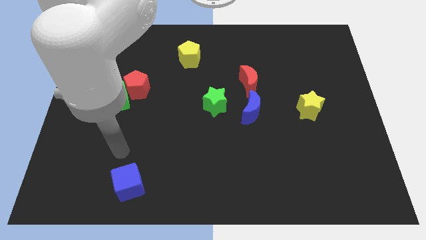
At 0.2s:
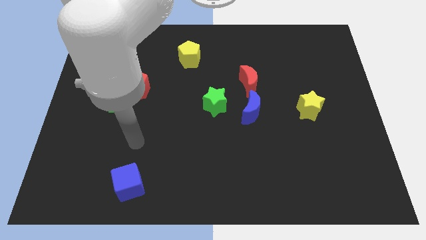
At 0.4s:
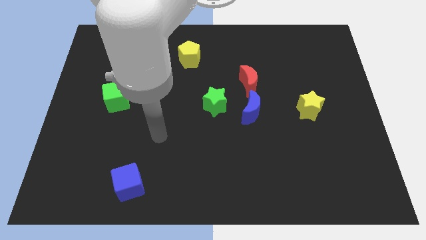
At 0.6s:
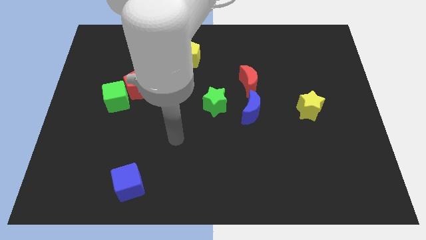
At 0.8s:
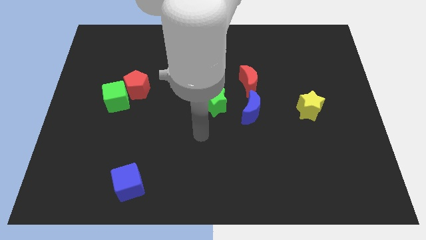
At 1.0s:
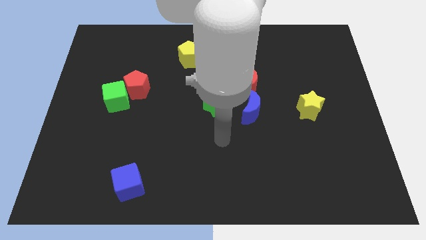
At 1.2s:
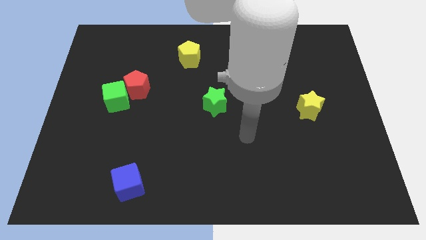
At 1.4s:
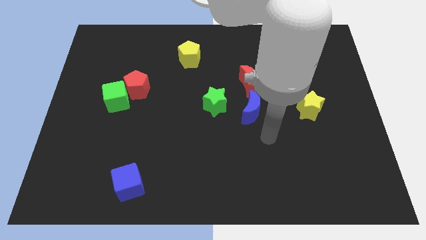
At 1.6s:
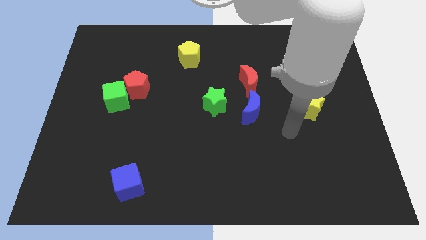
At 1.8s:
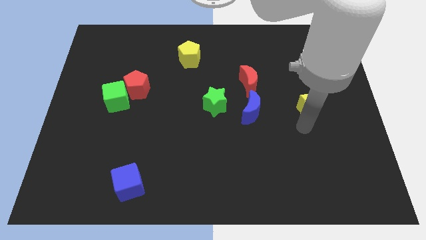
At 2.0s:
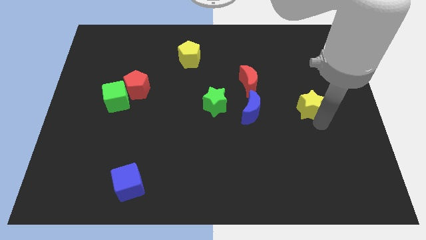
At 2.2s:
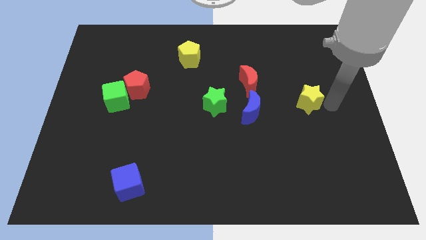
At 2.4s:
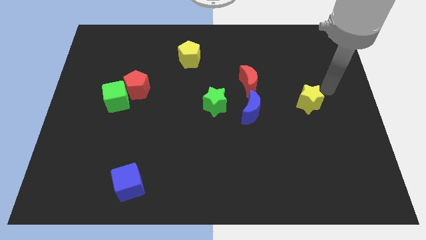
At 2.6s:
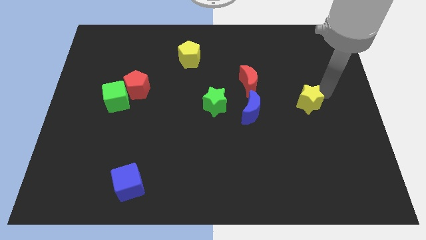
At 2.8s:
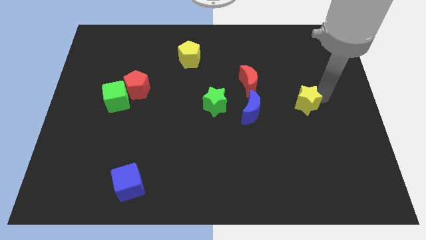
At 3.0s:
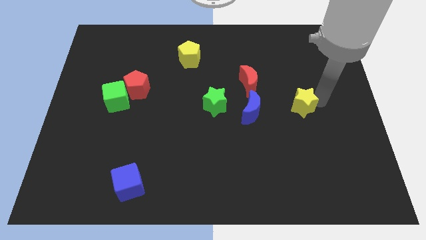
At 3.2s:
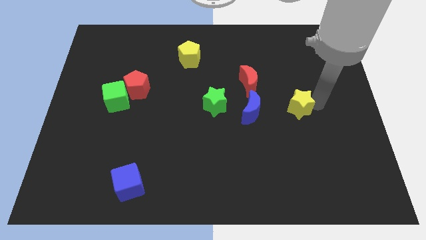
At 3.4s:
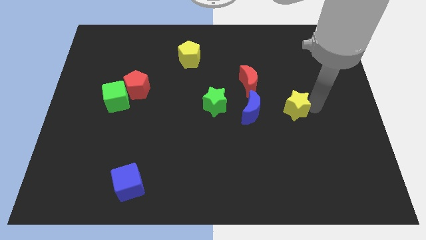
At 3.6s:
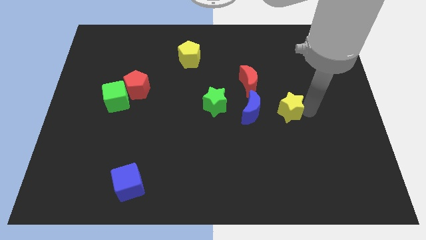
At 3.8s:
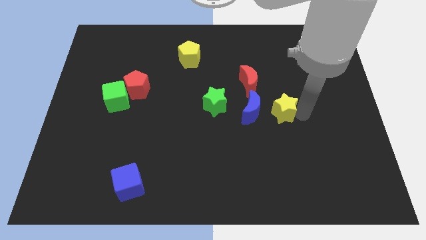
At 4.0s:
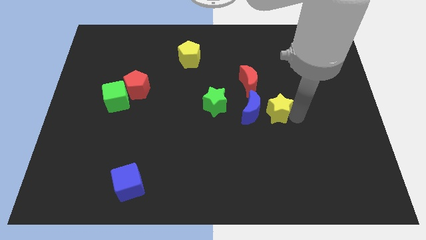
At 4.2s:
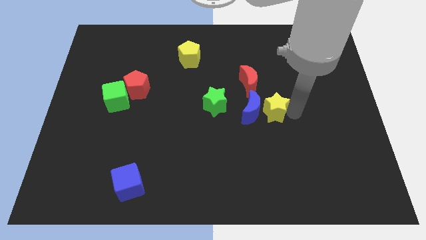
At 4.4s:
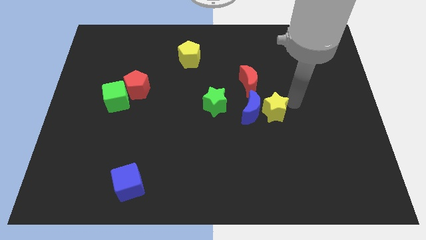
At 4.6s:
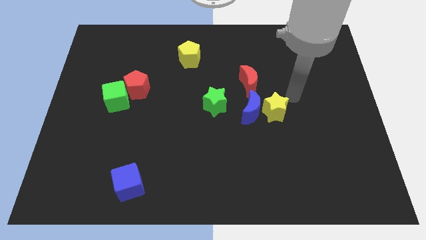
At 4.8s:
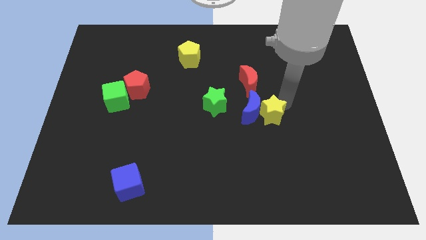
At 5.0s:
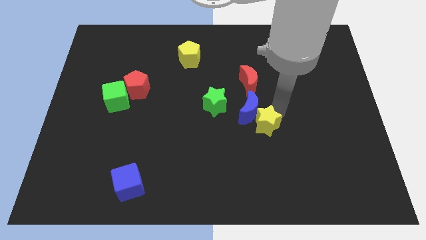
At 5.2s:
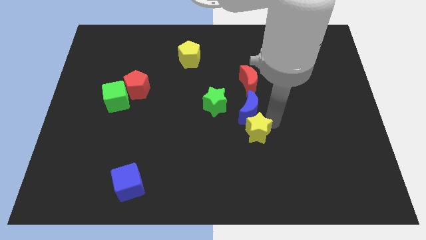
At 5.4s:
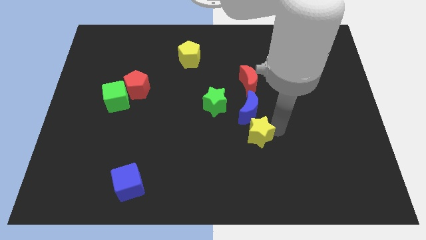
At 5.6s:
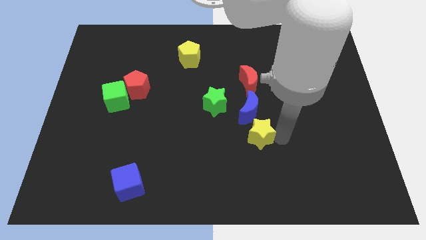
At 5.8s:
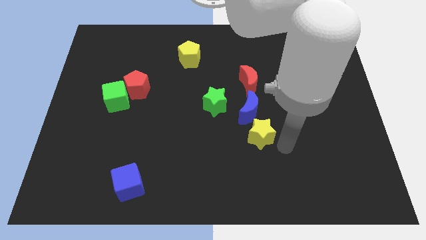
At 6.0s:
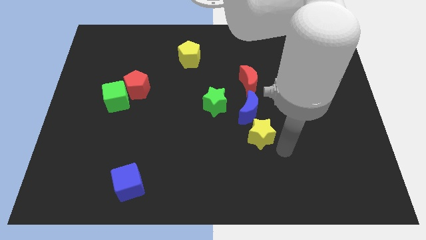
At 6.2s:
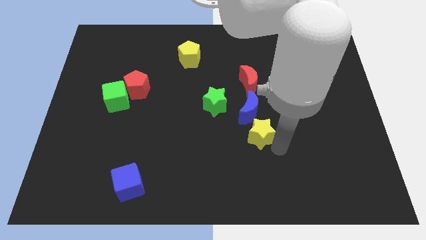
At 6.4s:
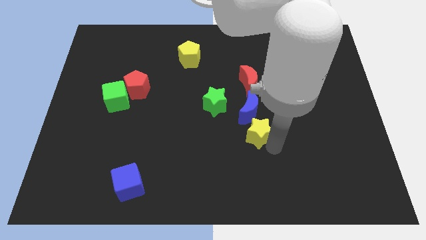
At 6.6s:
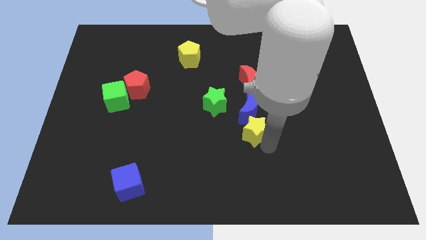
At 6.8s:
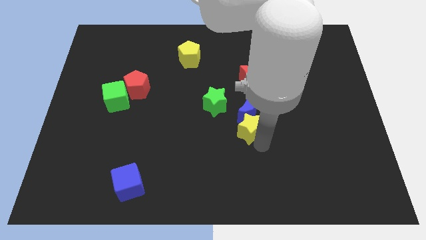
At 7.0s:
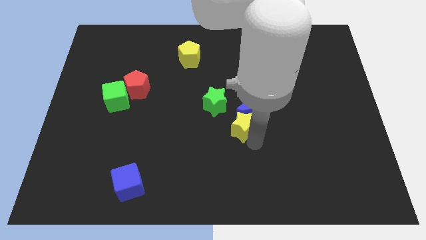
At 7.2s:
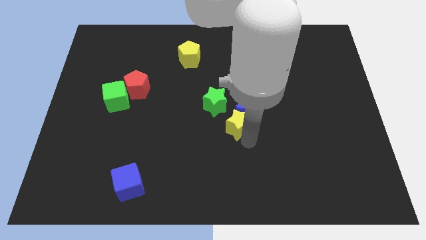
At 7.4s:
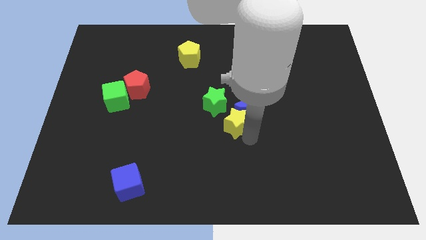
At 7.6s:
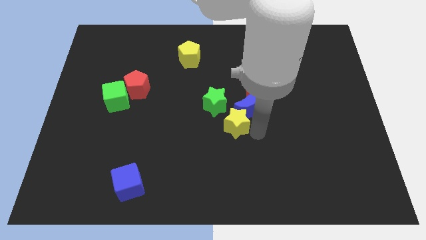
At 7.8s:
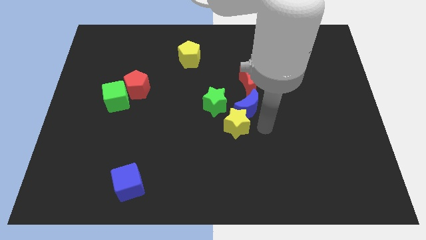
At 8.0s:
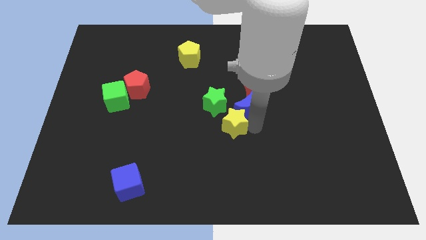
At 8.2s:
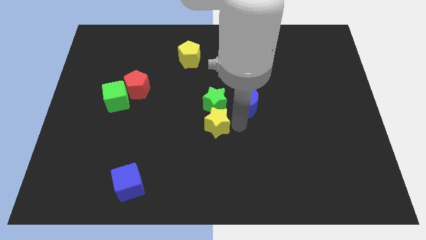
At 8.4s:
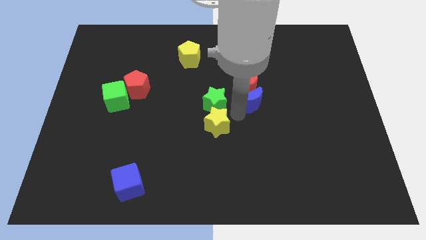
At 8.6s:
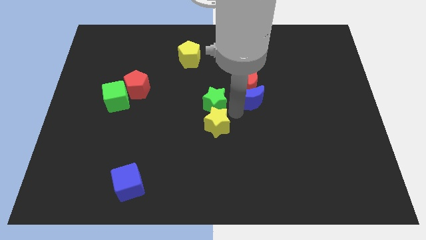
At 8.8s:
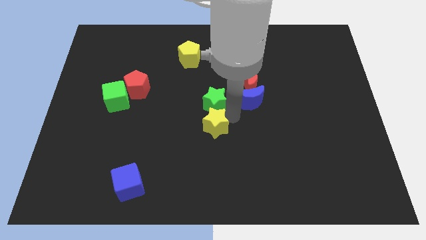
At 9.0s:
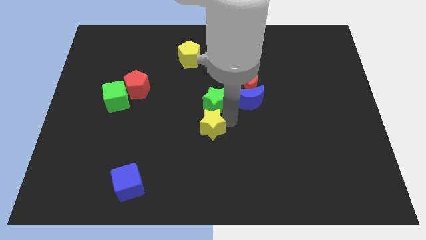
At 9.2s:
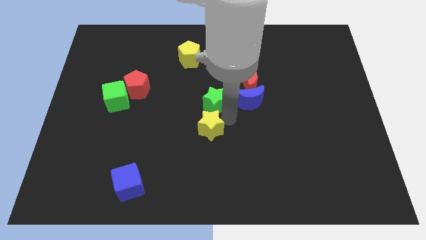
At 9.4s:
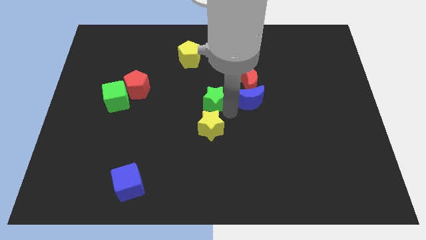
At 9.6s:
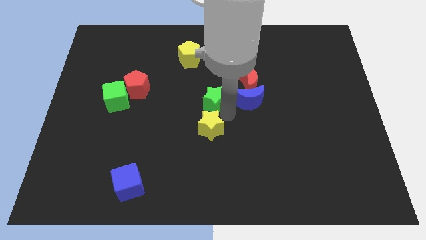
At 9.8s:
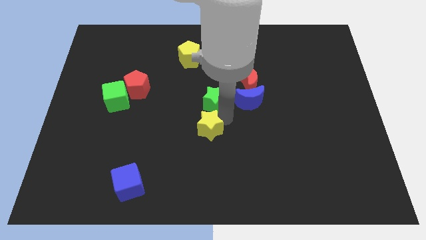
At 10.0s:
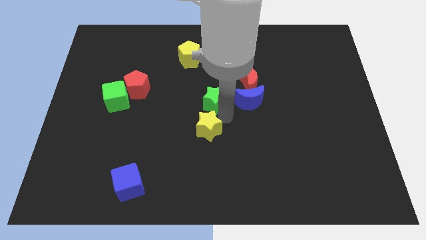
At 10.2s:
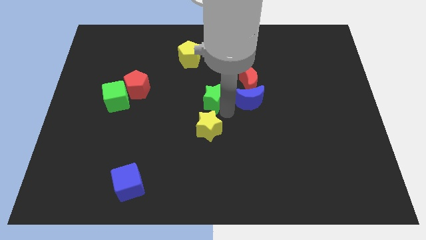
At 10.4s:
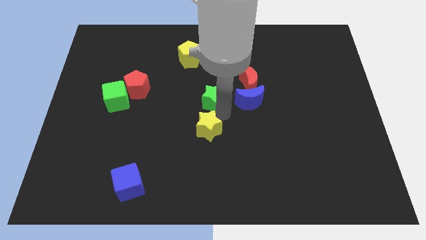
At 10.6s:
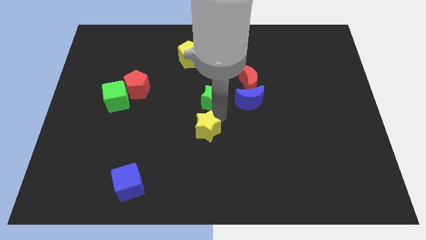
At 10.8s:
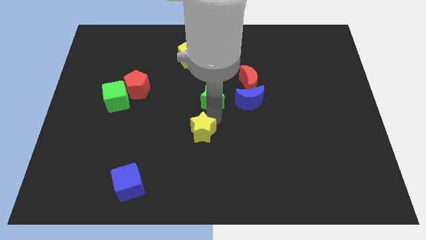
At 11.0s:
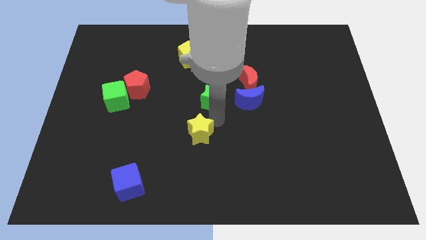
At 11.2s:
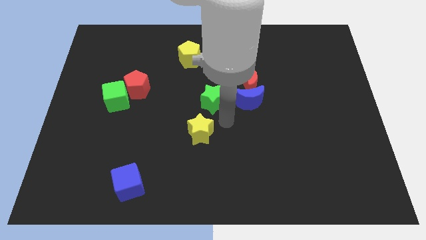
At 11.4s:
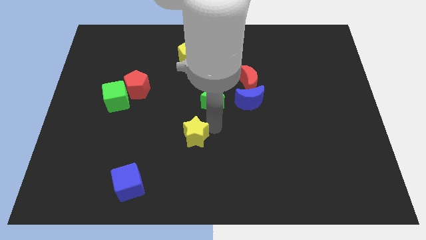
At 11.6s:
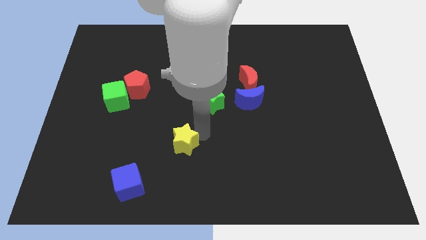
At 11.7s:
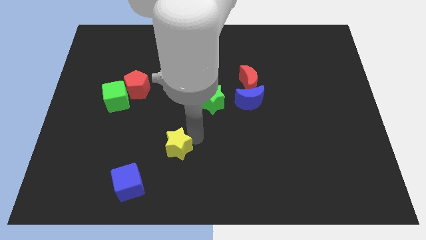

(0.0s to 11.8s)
put the yellow star to the top right side of the blue cube

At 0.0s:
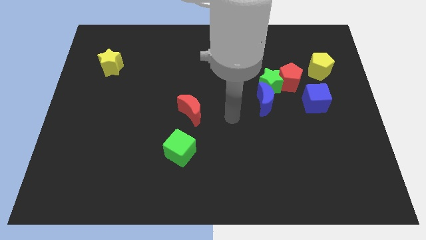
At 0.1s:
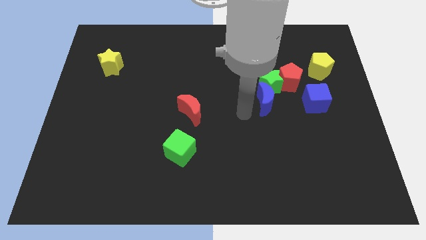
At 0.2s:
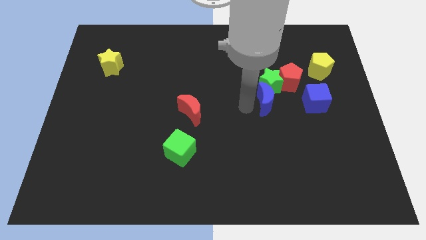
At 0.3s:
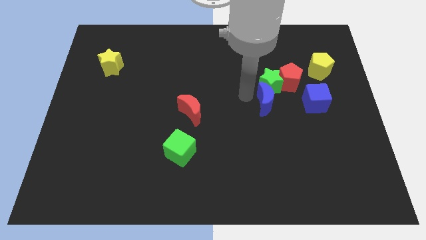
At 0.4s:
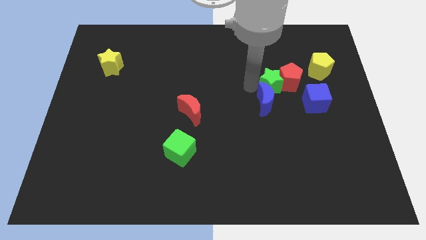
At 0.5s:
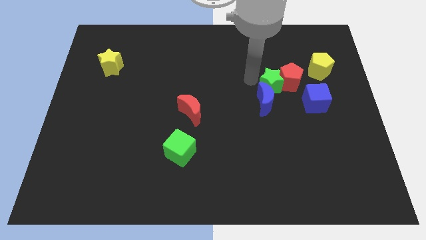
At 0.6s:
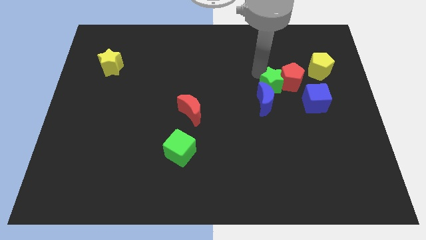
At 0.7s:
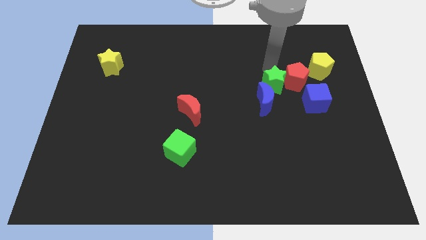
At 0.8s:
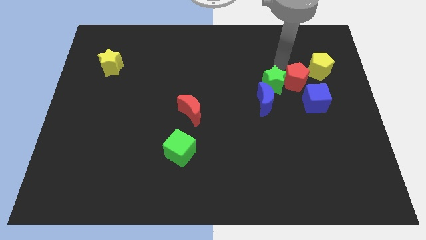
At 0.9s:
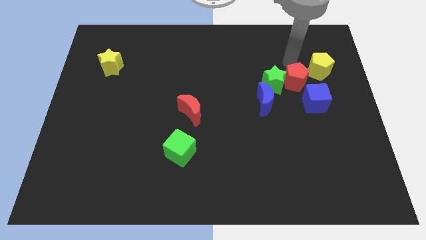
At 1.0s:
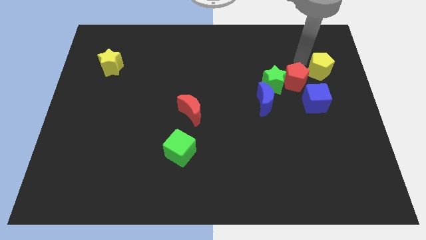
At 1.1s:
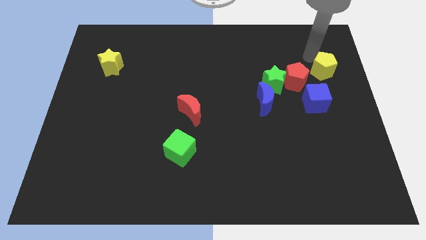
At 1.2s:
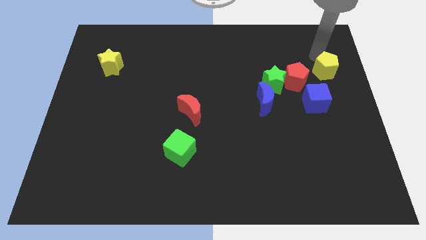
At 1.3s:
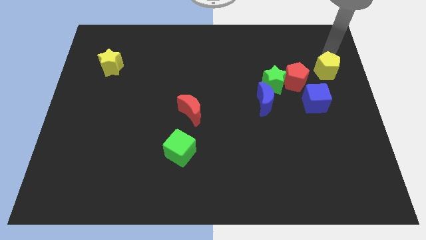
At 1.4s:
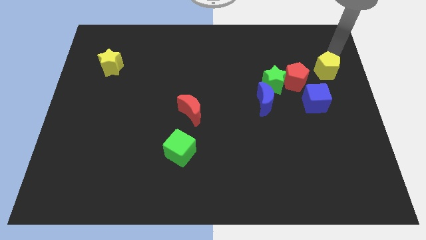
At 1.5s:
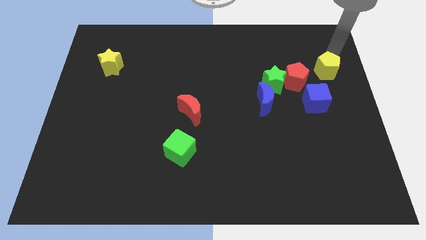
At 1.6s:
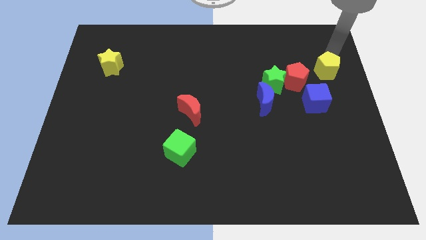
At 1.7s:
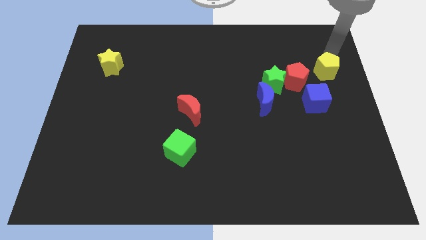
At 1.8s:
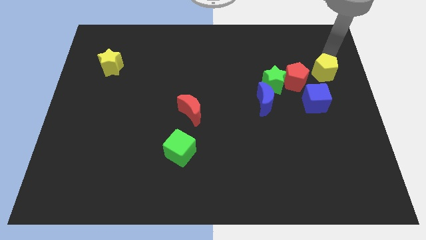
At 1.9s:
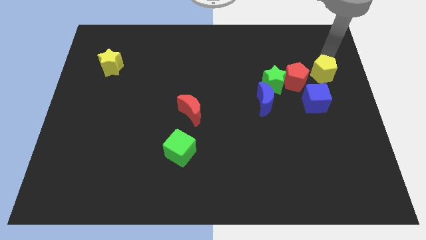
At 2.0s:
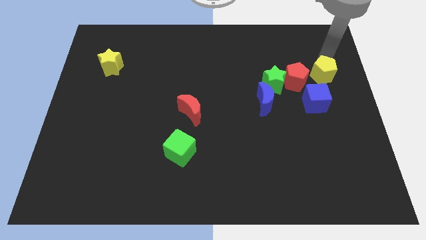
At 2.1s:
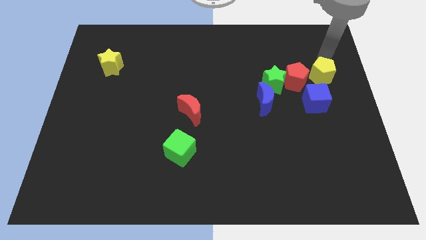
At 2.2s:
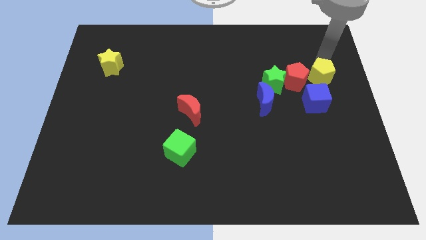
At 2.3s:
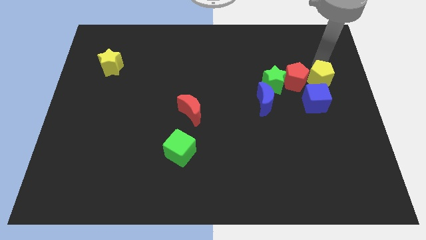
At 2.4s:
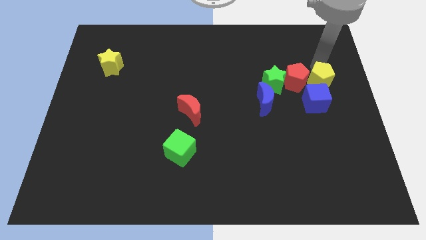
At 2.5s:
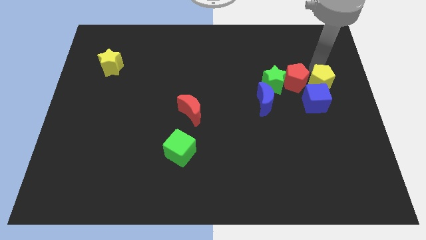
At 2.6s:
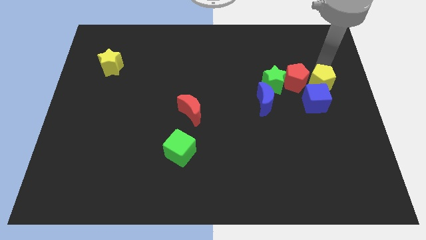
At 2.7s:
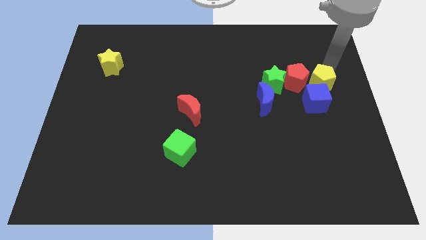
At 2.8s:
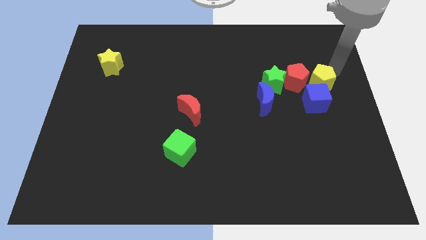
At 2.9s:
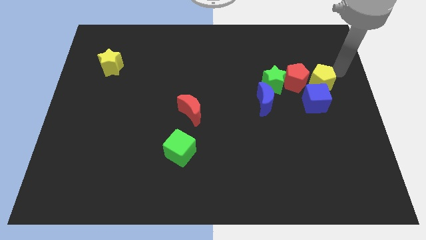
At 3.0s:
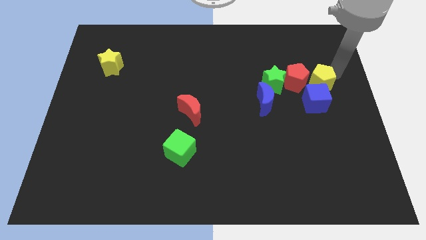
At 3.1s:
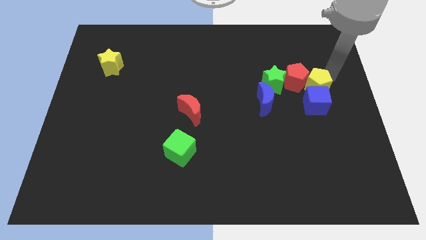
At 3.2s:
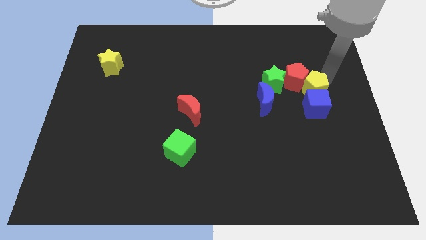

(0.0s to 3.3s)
put the yellow pentagon to the bottom side of the red pentagon
